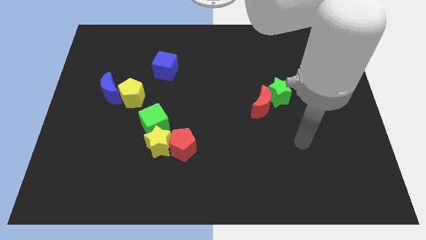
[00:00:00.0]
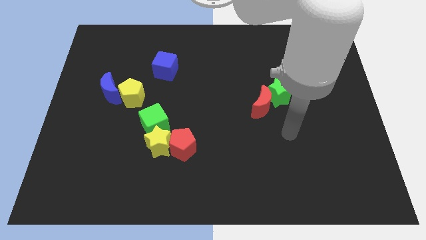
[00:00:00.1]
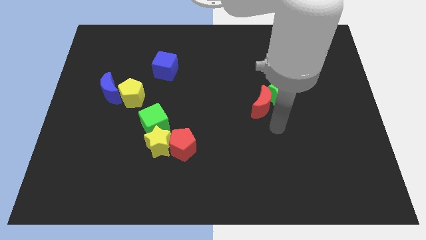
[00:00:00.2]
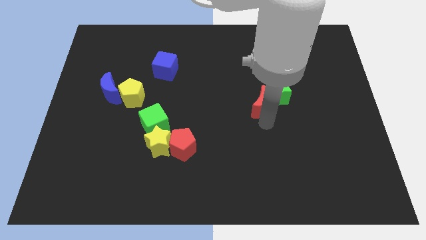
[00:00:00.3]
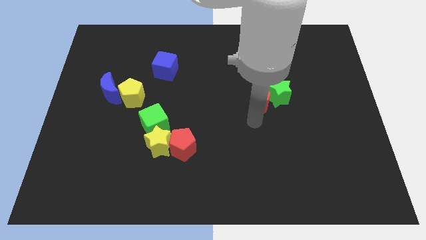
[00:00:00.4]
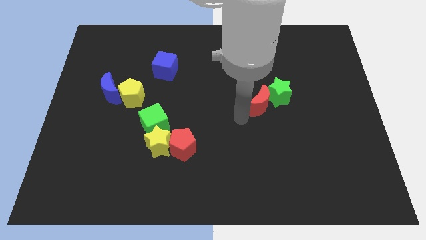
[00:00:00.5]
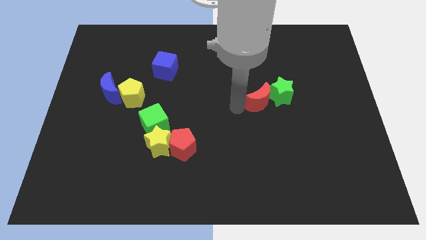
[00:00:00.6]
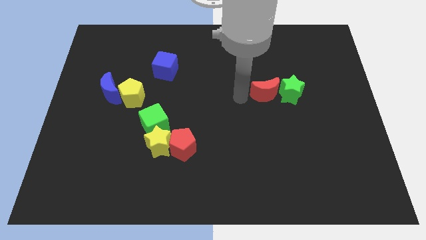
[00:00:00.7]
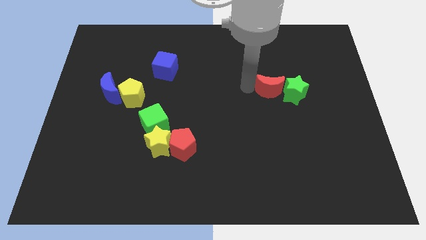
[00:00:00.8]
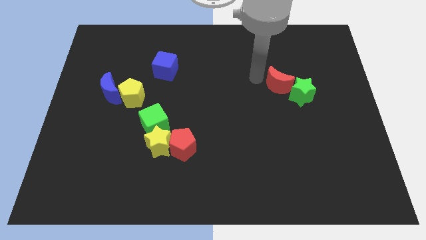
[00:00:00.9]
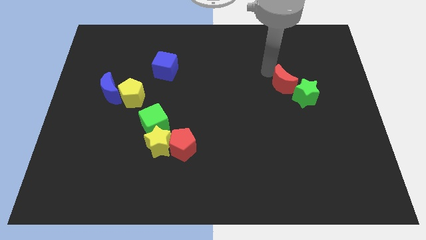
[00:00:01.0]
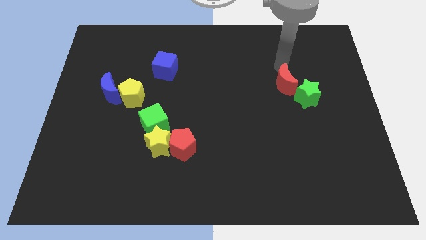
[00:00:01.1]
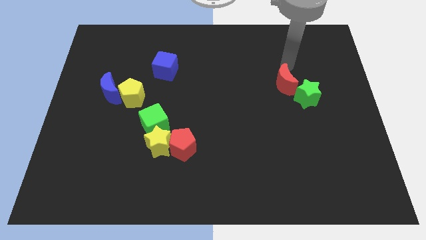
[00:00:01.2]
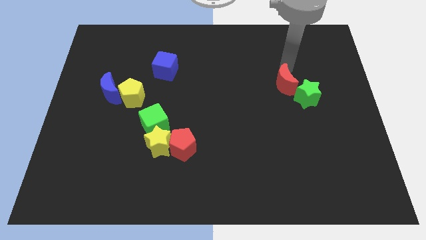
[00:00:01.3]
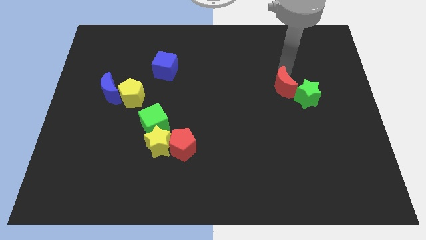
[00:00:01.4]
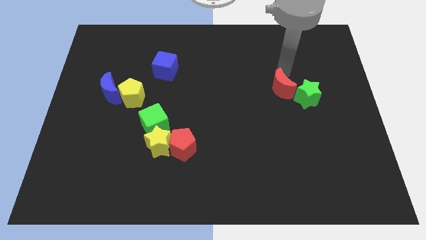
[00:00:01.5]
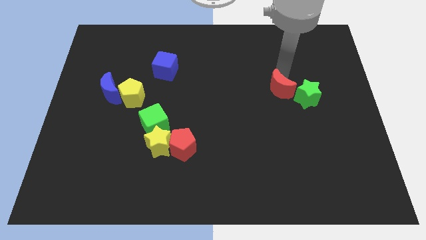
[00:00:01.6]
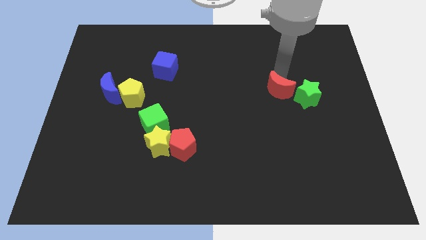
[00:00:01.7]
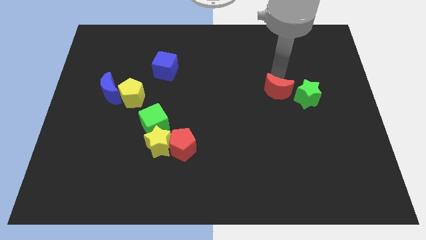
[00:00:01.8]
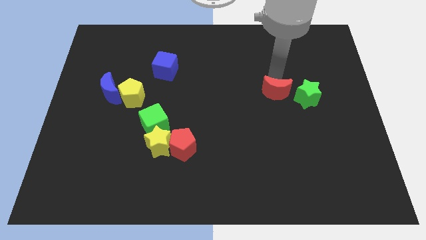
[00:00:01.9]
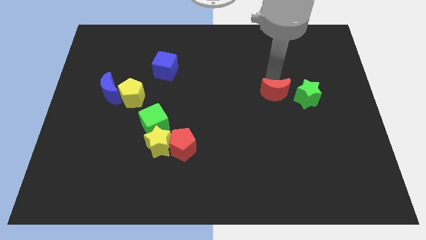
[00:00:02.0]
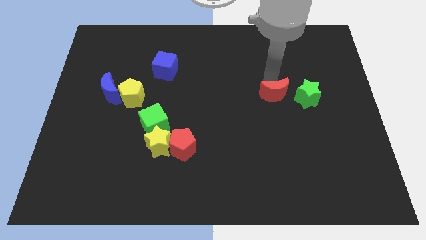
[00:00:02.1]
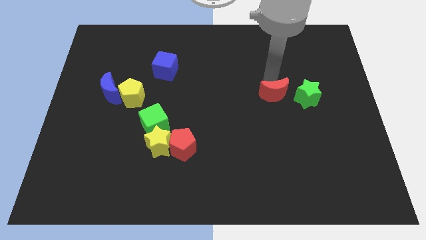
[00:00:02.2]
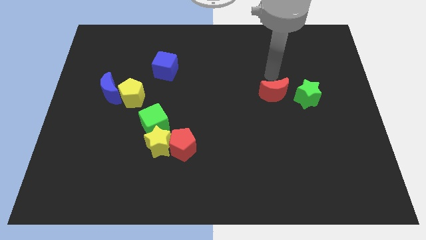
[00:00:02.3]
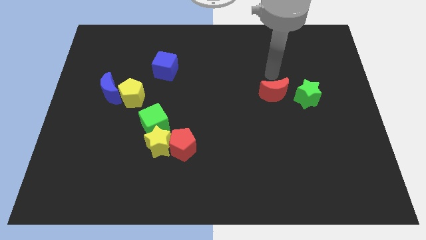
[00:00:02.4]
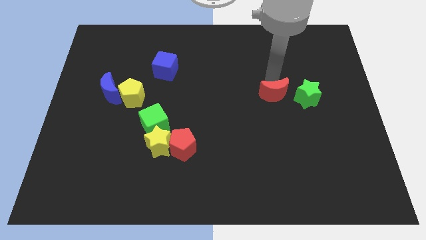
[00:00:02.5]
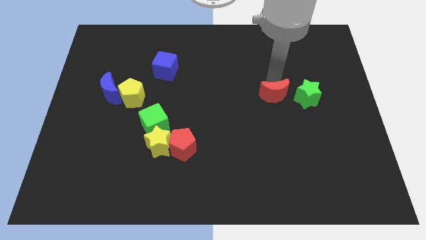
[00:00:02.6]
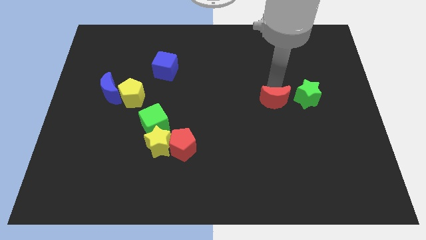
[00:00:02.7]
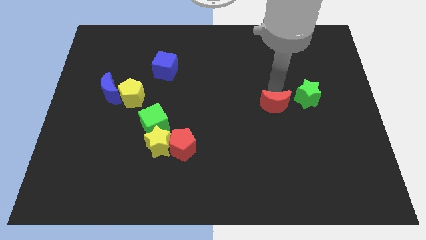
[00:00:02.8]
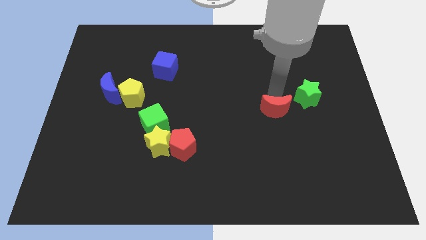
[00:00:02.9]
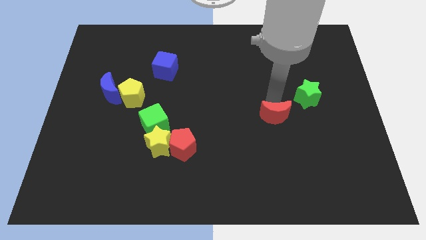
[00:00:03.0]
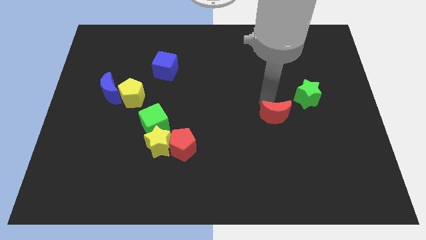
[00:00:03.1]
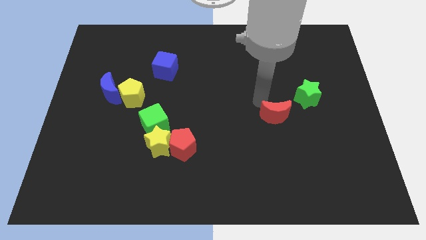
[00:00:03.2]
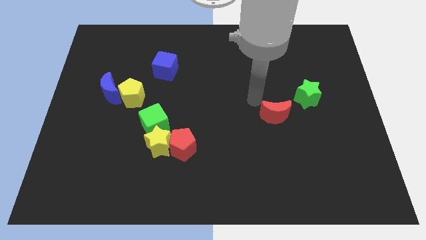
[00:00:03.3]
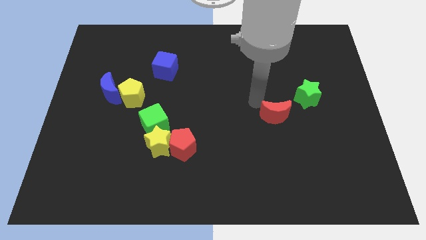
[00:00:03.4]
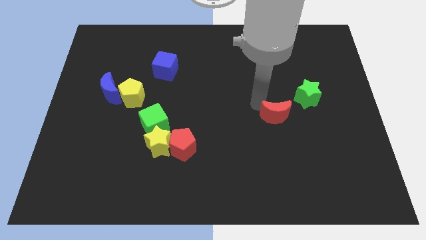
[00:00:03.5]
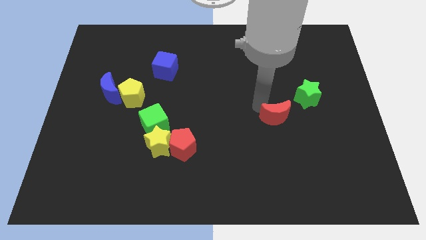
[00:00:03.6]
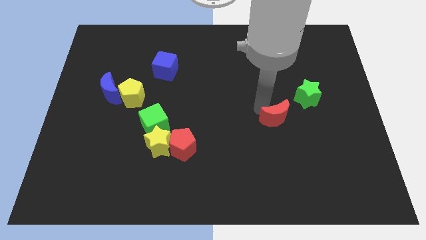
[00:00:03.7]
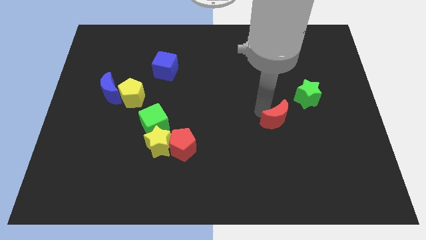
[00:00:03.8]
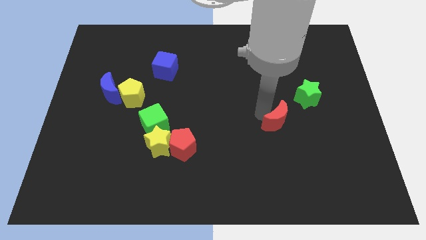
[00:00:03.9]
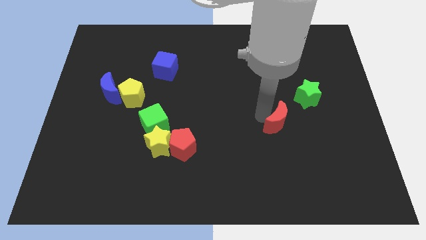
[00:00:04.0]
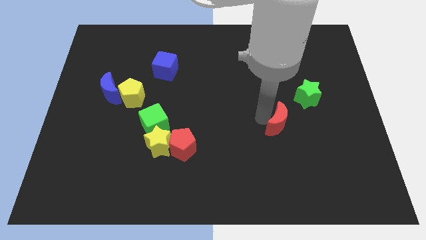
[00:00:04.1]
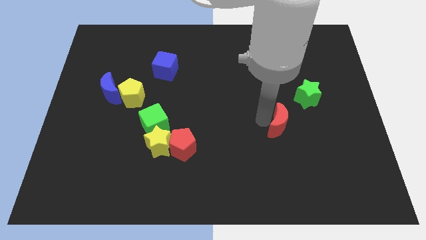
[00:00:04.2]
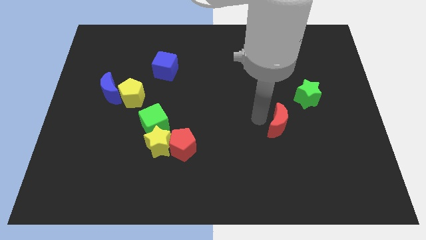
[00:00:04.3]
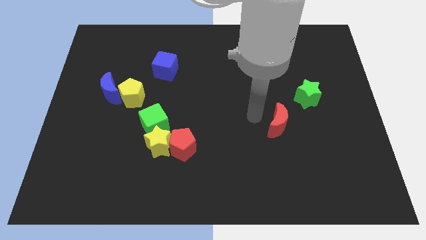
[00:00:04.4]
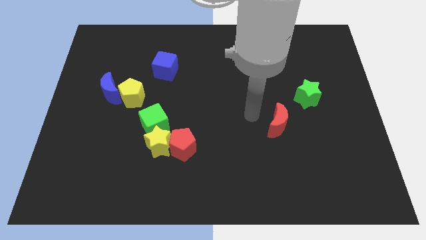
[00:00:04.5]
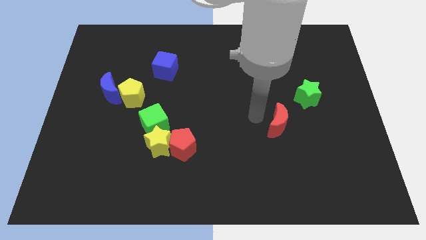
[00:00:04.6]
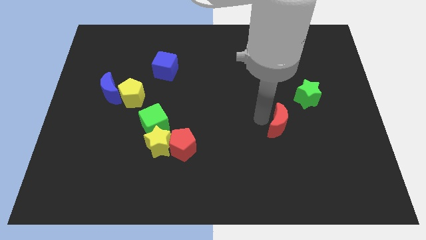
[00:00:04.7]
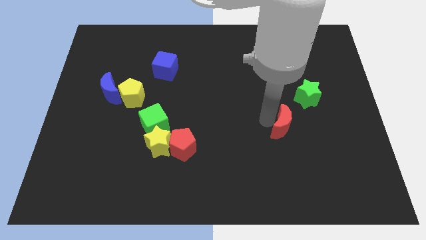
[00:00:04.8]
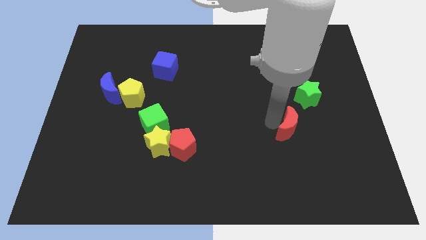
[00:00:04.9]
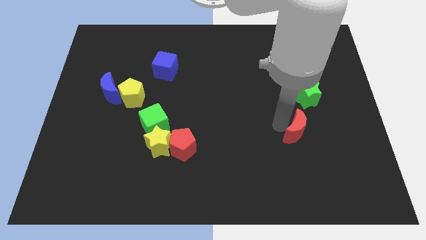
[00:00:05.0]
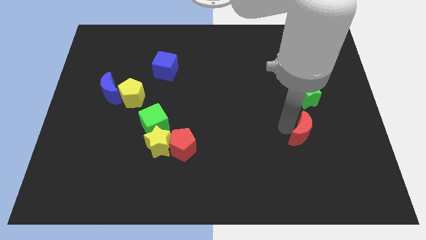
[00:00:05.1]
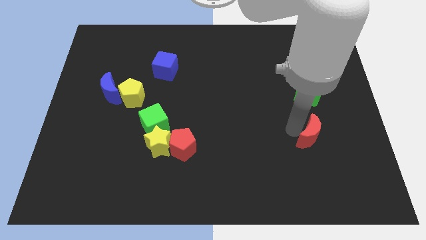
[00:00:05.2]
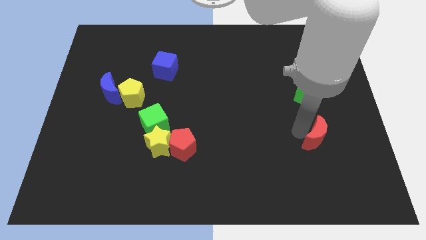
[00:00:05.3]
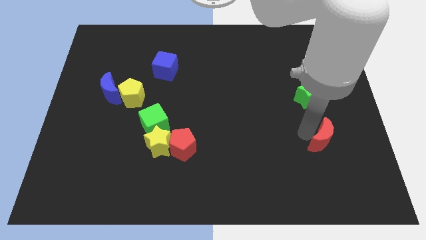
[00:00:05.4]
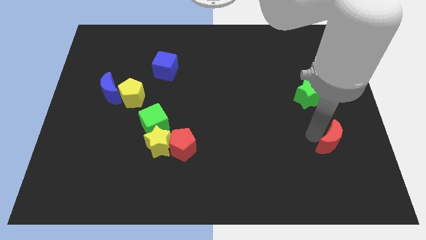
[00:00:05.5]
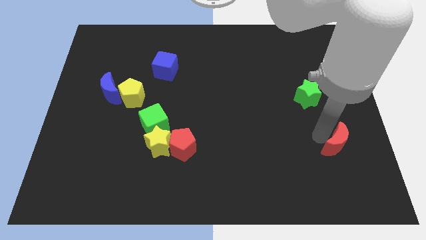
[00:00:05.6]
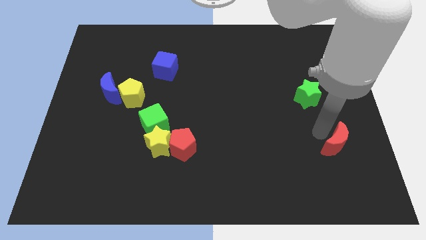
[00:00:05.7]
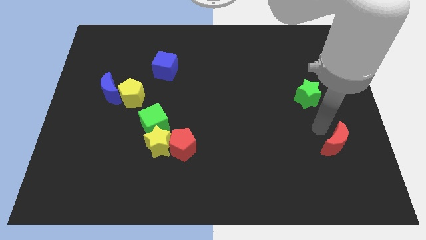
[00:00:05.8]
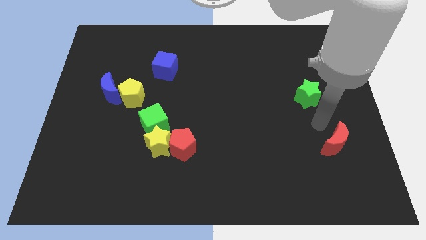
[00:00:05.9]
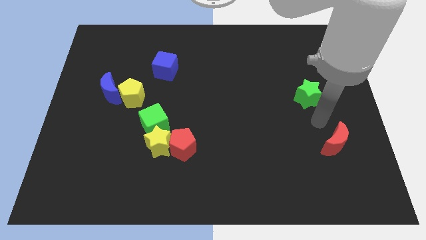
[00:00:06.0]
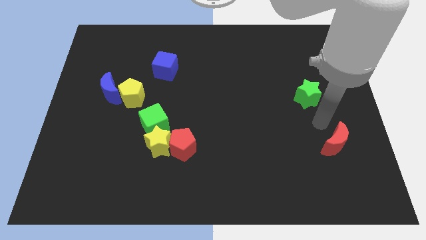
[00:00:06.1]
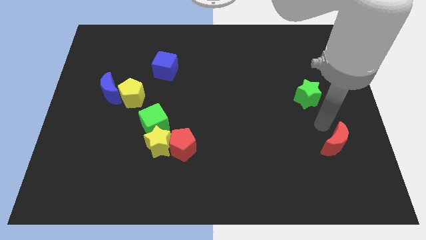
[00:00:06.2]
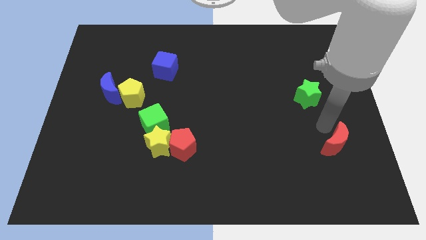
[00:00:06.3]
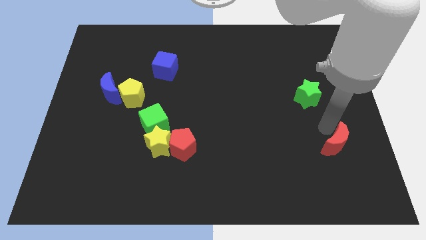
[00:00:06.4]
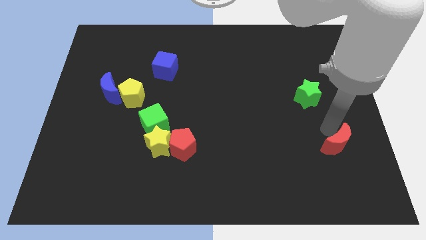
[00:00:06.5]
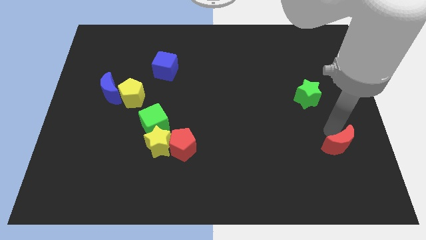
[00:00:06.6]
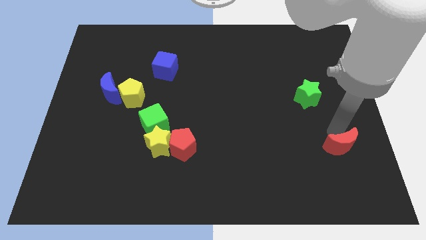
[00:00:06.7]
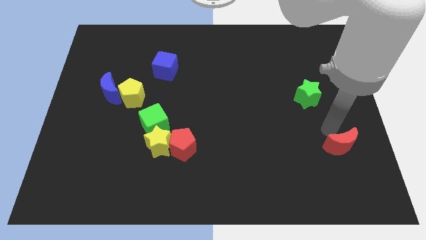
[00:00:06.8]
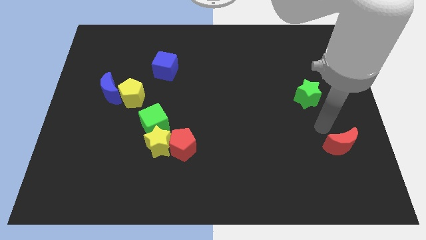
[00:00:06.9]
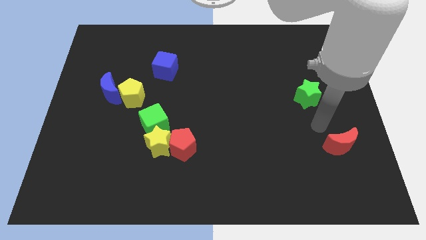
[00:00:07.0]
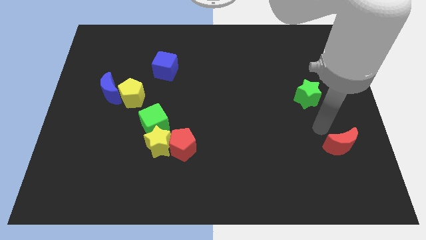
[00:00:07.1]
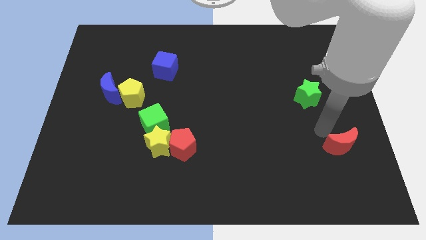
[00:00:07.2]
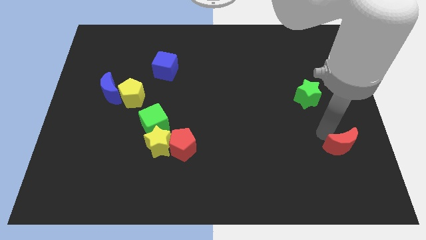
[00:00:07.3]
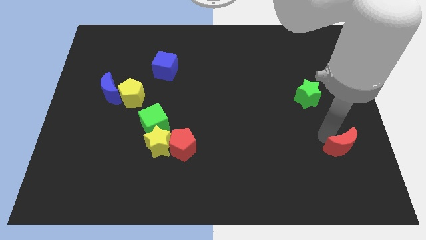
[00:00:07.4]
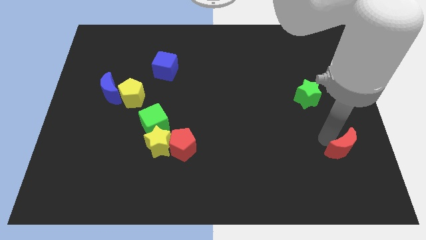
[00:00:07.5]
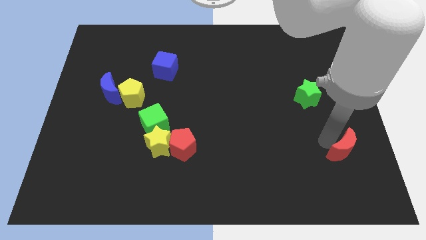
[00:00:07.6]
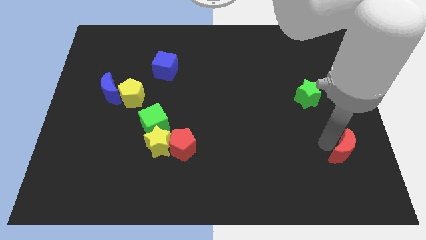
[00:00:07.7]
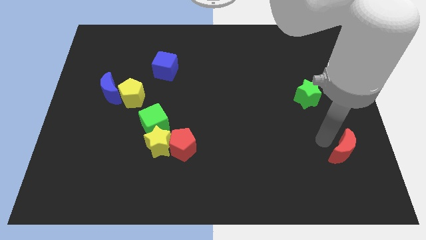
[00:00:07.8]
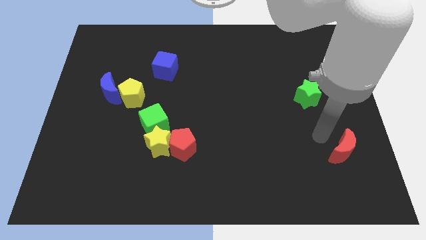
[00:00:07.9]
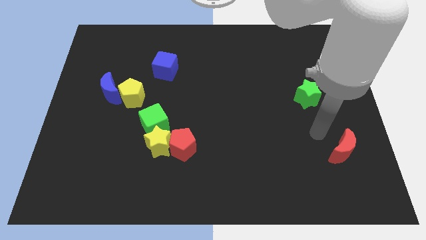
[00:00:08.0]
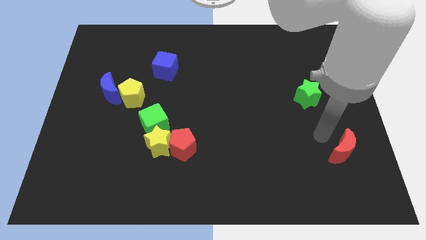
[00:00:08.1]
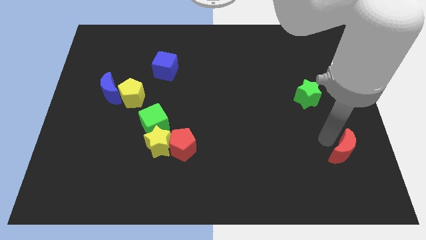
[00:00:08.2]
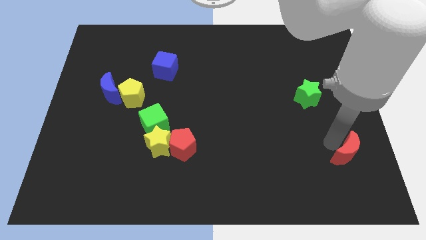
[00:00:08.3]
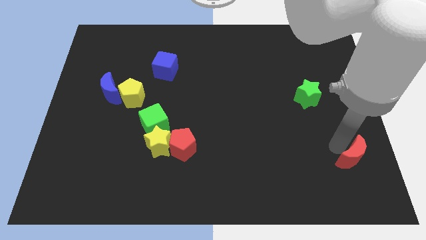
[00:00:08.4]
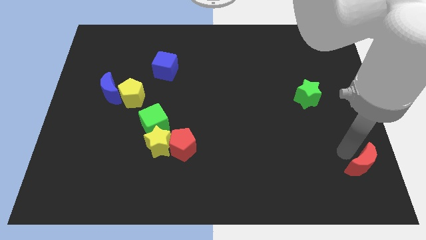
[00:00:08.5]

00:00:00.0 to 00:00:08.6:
push the red moon to the bottom right
